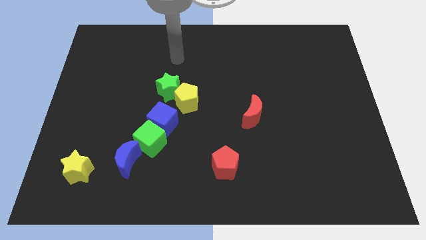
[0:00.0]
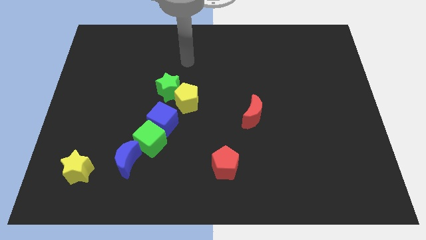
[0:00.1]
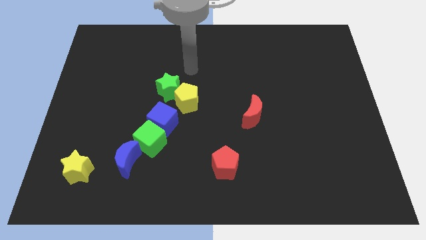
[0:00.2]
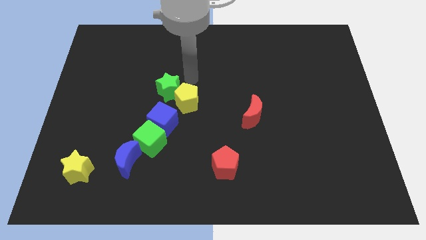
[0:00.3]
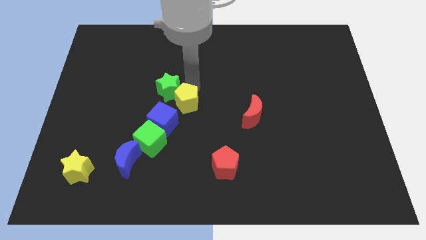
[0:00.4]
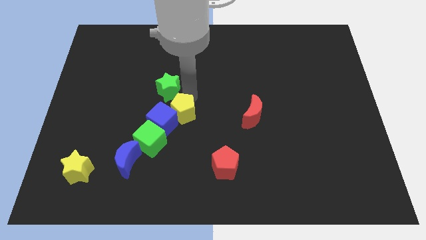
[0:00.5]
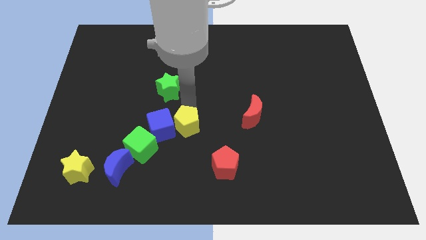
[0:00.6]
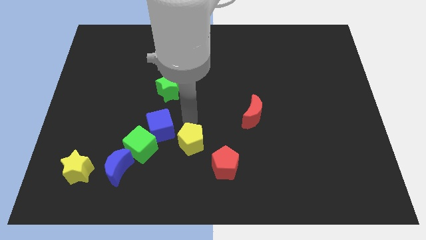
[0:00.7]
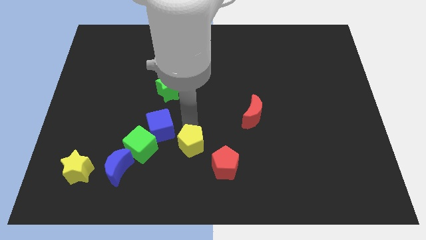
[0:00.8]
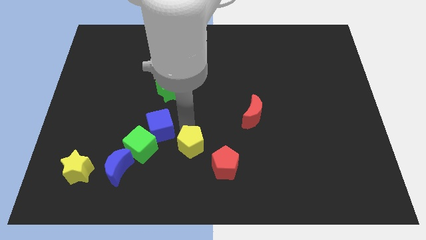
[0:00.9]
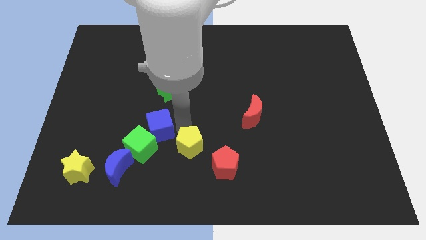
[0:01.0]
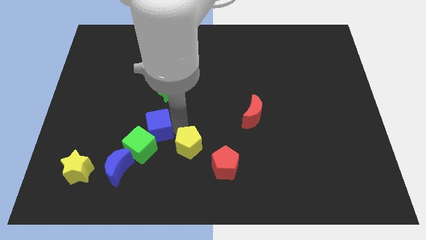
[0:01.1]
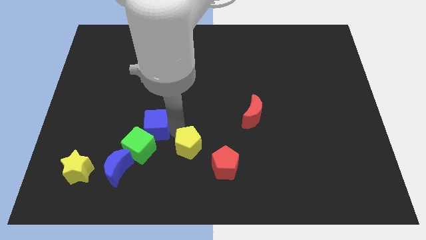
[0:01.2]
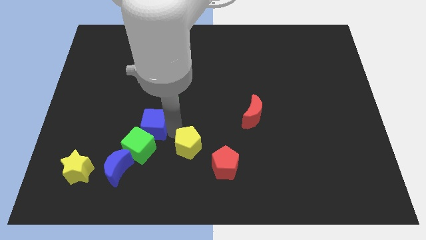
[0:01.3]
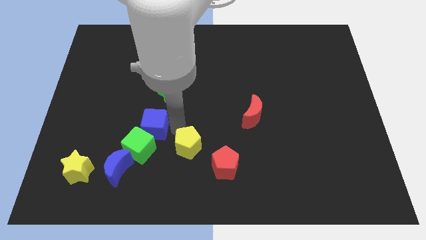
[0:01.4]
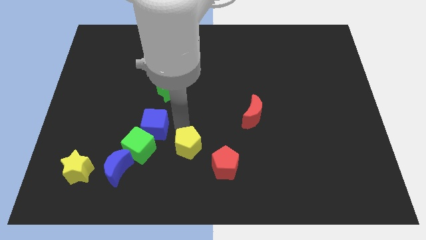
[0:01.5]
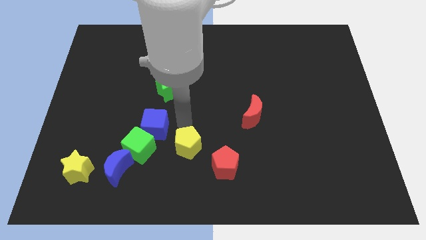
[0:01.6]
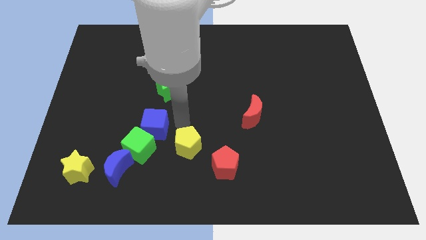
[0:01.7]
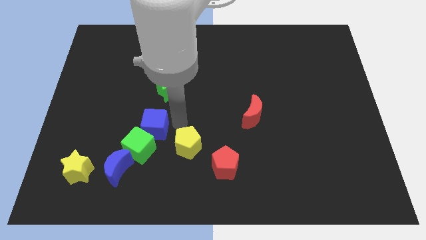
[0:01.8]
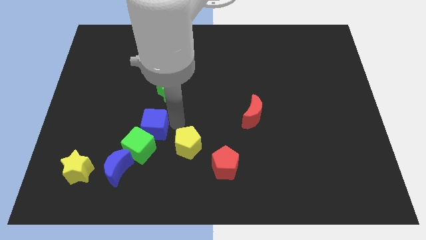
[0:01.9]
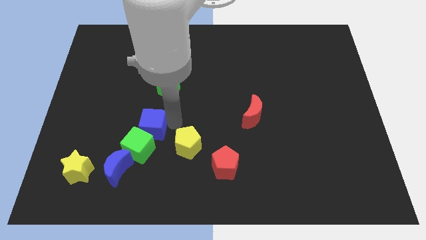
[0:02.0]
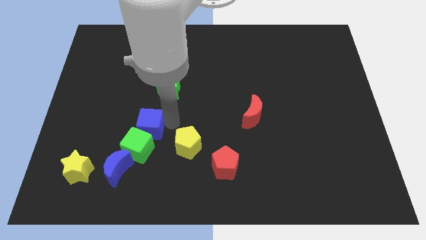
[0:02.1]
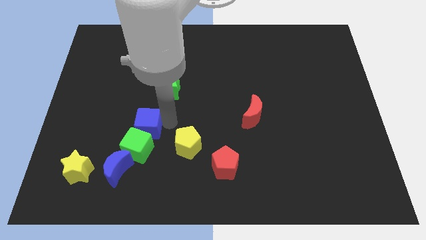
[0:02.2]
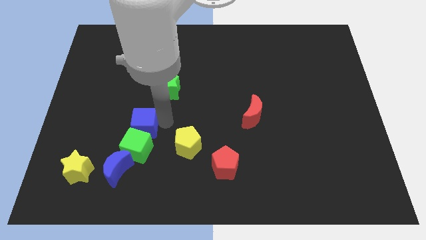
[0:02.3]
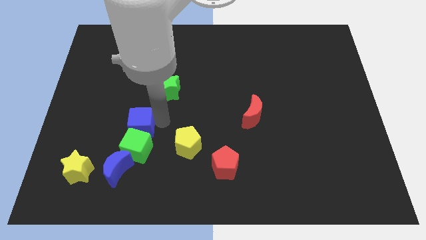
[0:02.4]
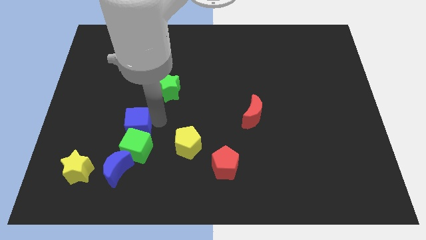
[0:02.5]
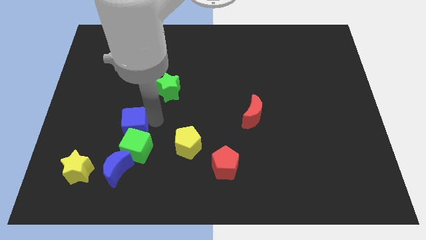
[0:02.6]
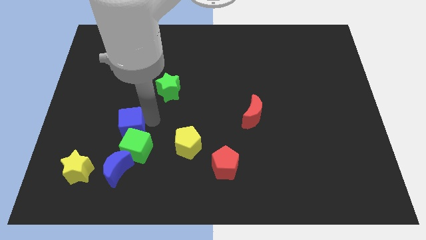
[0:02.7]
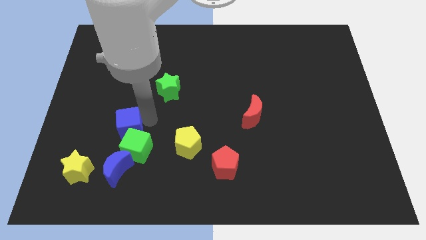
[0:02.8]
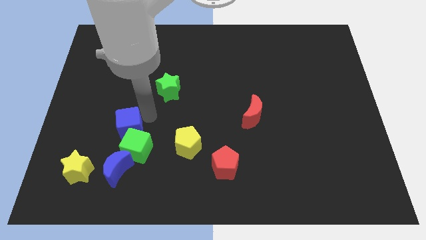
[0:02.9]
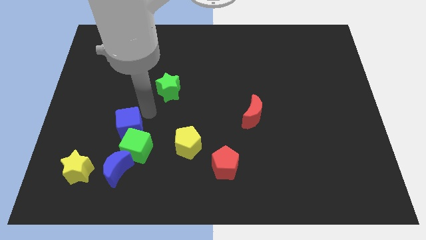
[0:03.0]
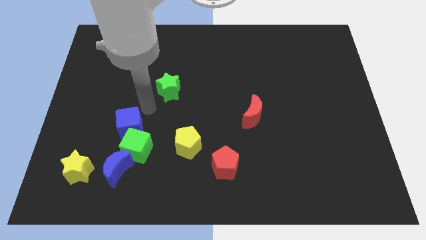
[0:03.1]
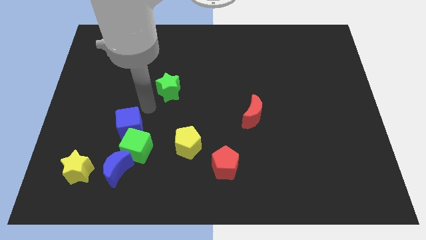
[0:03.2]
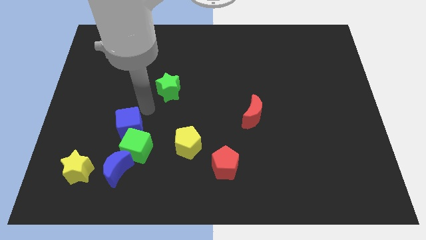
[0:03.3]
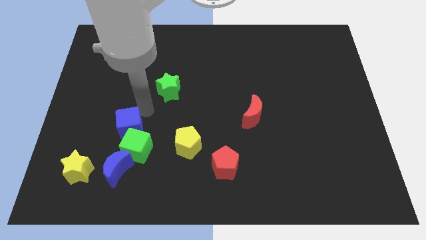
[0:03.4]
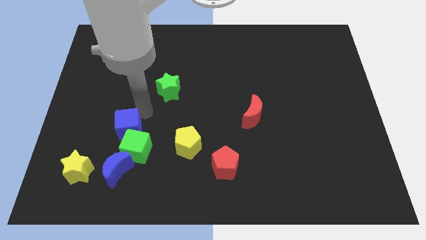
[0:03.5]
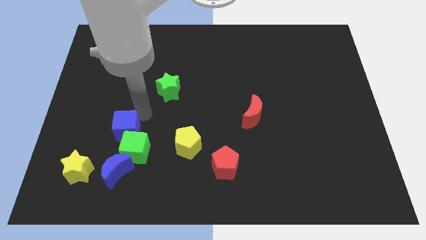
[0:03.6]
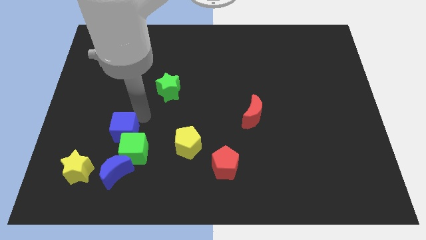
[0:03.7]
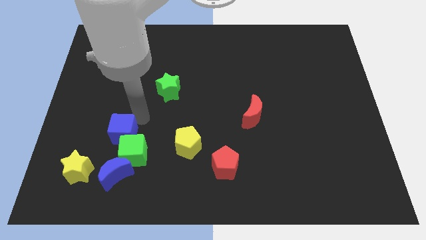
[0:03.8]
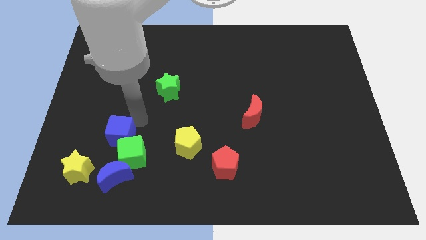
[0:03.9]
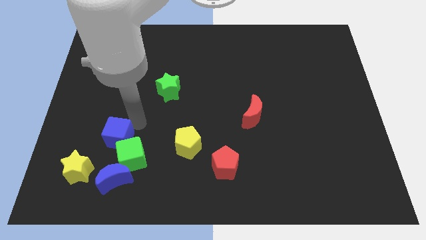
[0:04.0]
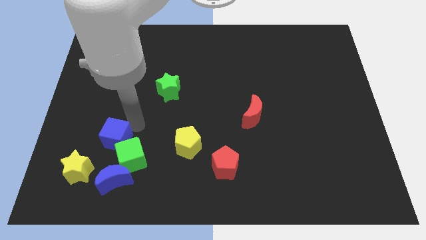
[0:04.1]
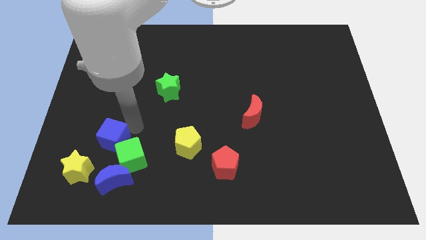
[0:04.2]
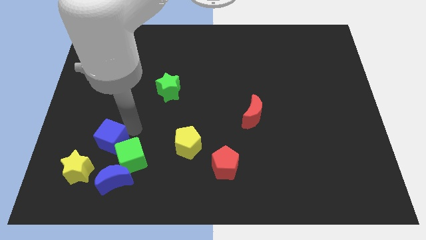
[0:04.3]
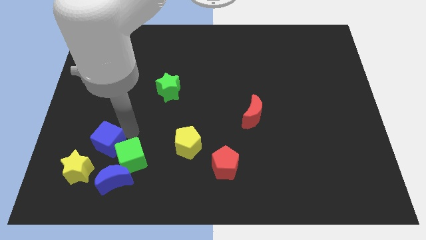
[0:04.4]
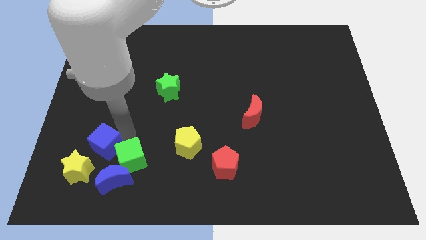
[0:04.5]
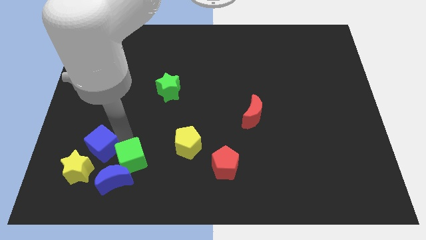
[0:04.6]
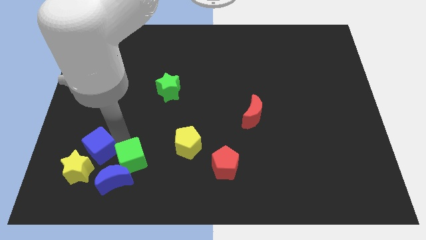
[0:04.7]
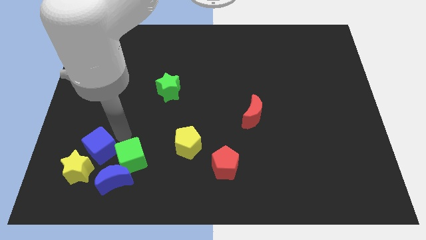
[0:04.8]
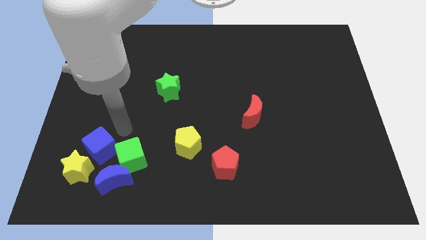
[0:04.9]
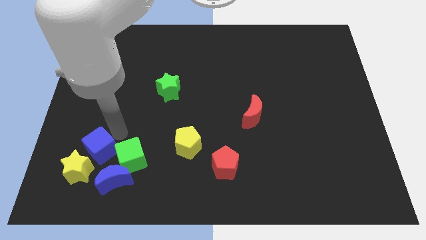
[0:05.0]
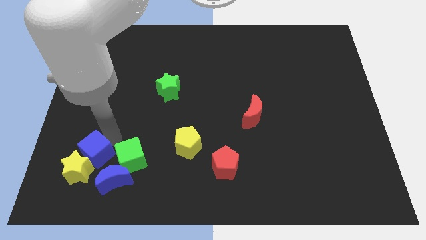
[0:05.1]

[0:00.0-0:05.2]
move the blue cube to the yellow star

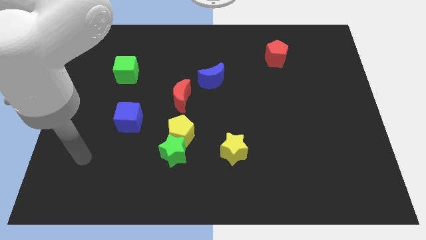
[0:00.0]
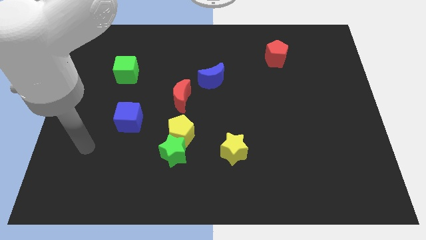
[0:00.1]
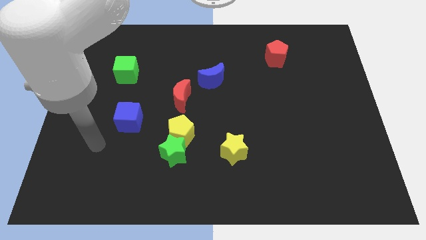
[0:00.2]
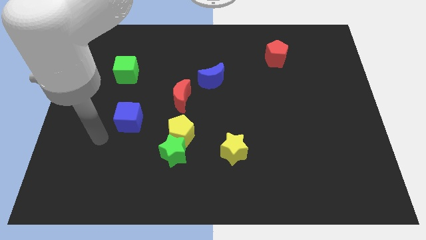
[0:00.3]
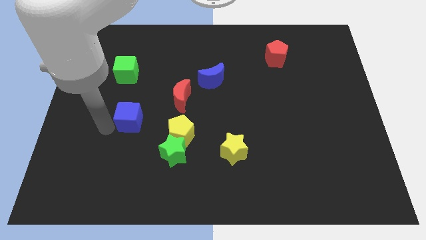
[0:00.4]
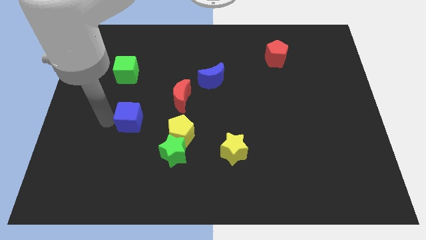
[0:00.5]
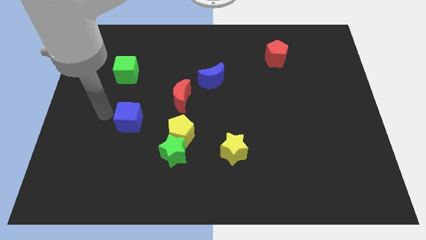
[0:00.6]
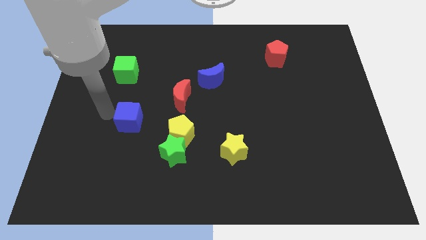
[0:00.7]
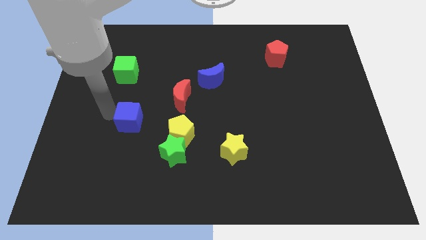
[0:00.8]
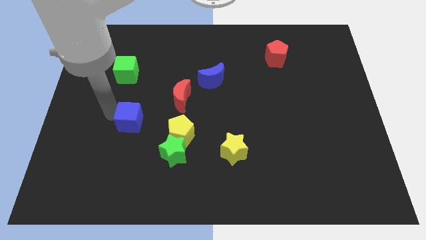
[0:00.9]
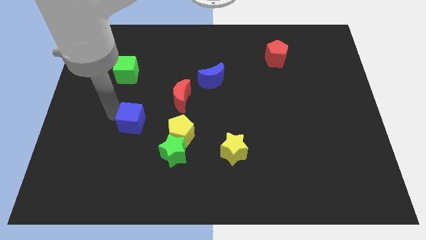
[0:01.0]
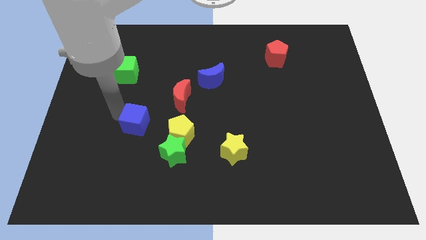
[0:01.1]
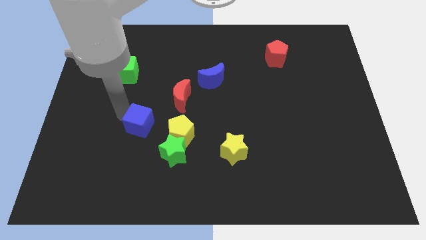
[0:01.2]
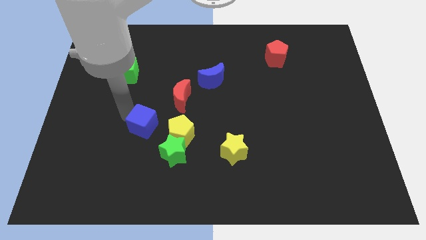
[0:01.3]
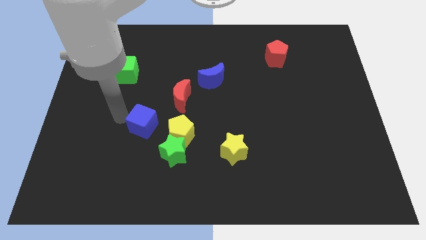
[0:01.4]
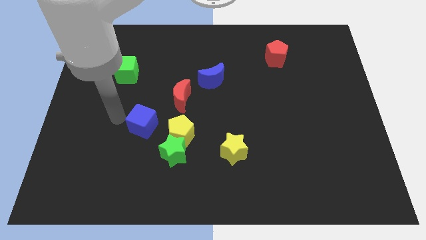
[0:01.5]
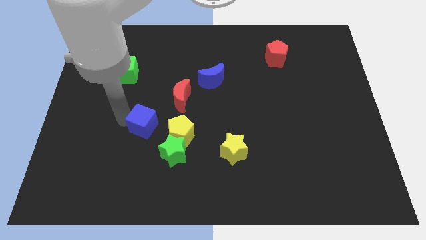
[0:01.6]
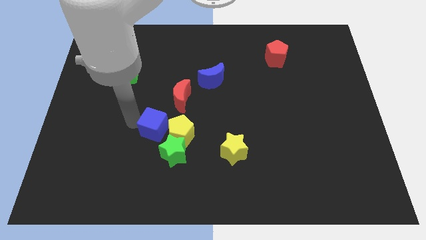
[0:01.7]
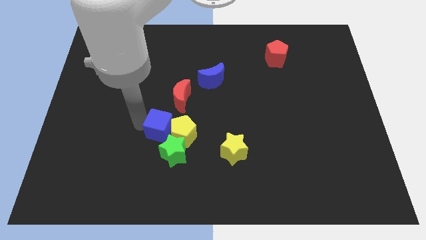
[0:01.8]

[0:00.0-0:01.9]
slide the blue cube to the yellow pentagon

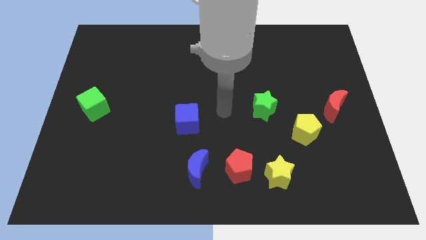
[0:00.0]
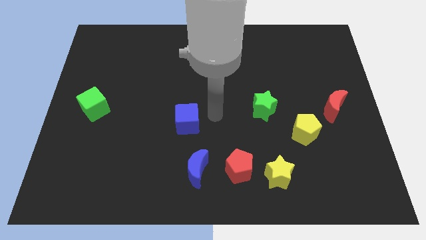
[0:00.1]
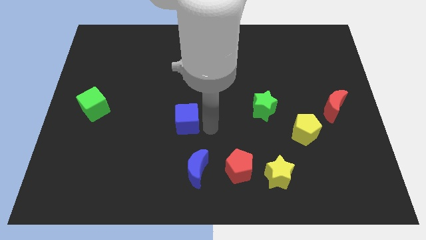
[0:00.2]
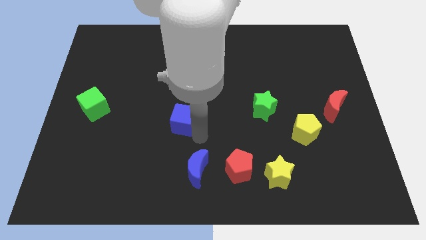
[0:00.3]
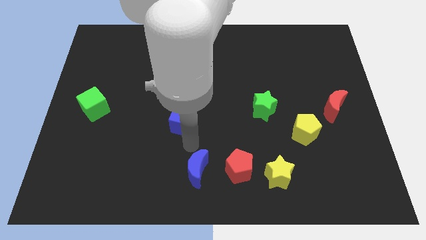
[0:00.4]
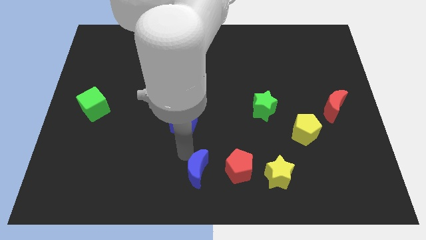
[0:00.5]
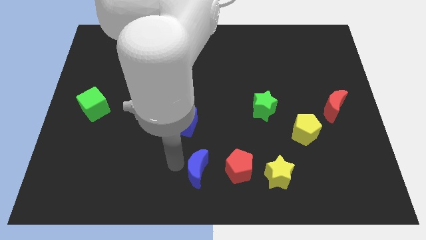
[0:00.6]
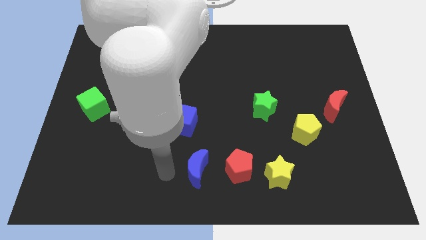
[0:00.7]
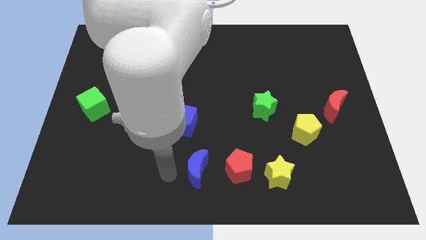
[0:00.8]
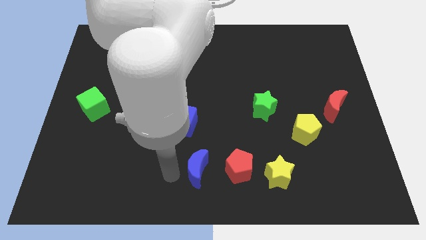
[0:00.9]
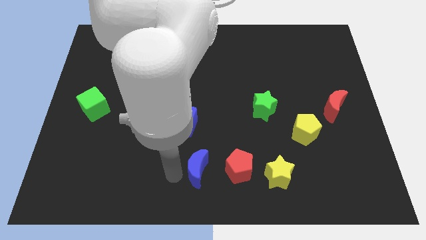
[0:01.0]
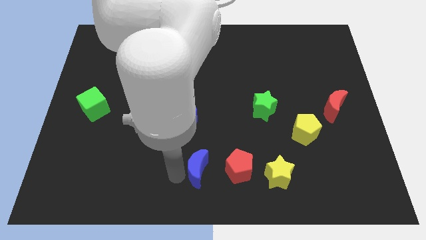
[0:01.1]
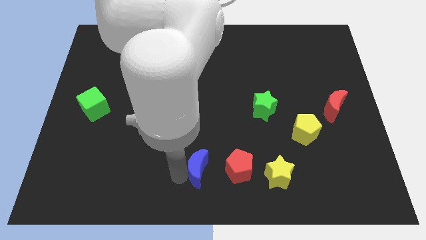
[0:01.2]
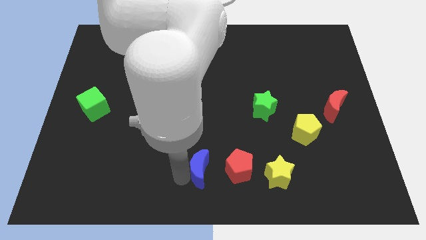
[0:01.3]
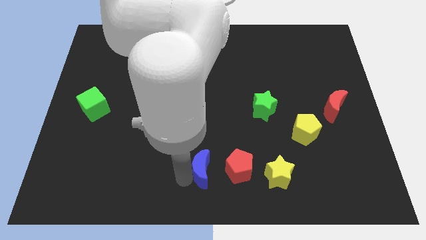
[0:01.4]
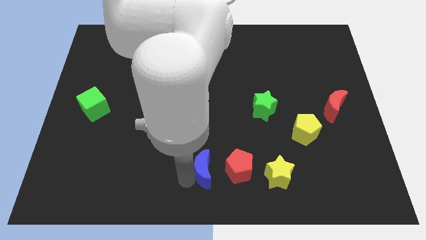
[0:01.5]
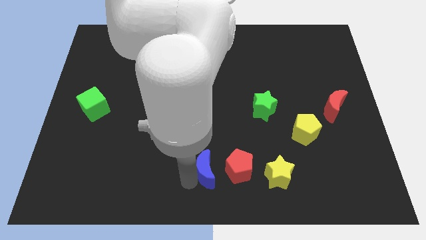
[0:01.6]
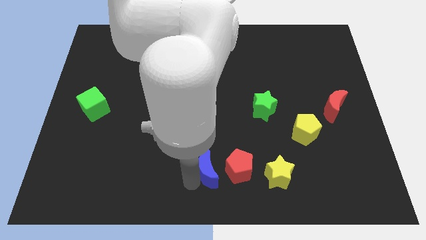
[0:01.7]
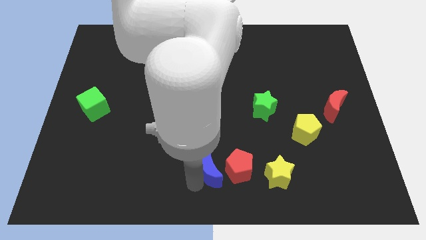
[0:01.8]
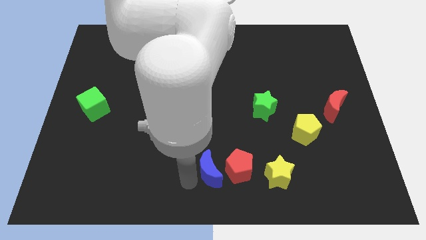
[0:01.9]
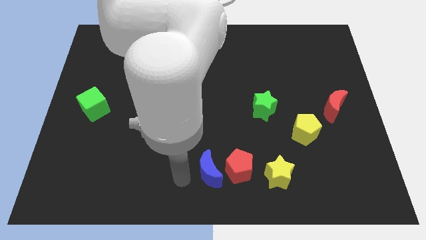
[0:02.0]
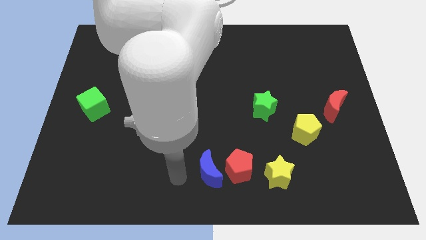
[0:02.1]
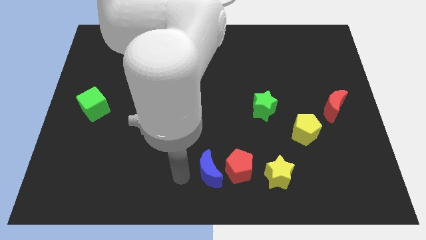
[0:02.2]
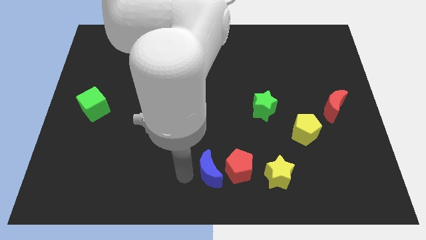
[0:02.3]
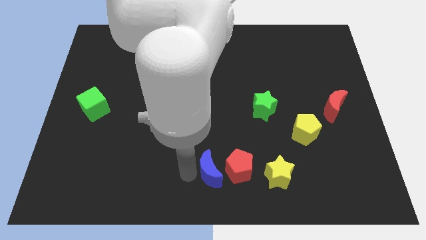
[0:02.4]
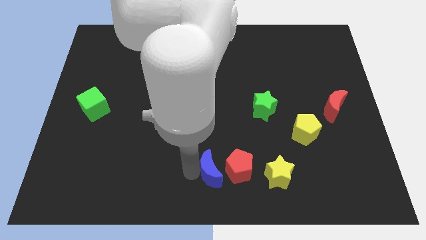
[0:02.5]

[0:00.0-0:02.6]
put the blue moon to the red pentagon
